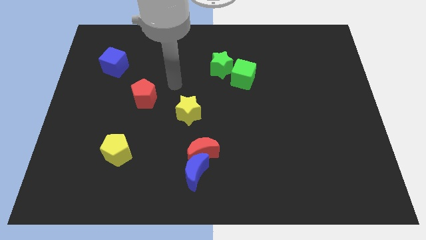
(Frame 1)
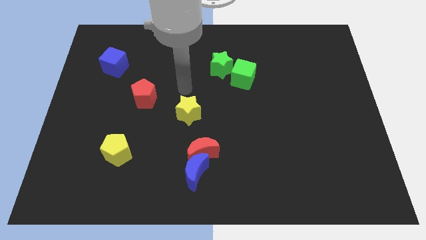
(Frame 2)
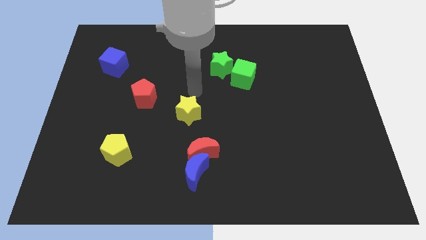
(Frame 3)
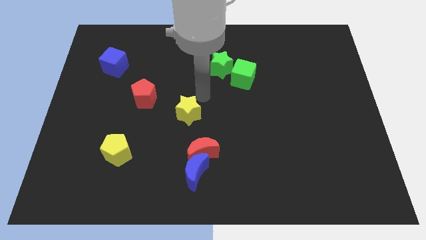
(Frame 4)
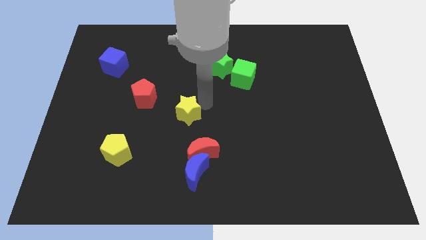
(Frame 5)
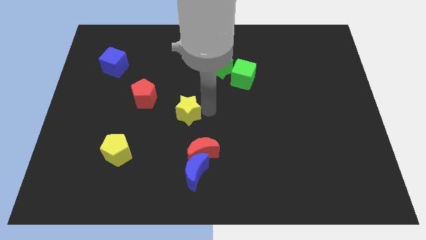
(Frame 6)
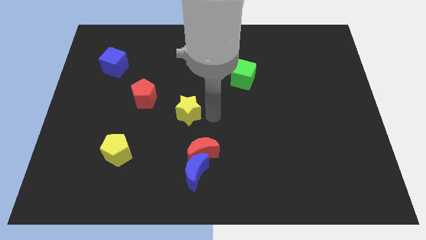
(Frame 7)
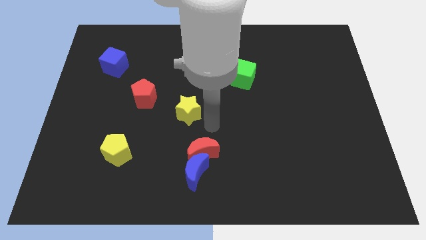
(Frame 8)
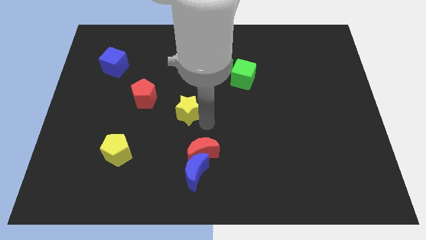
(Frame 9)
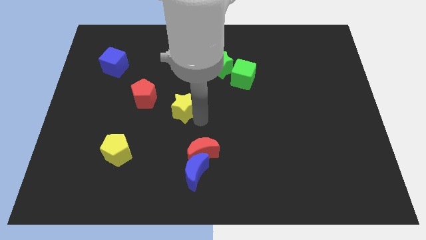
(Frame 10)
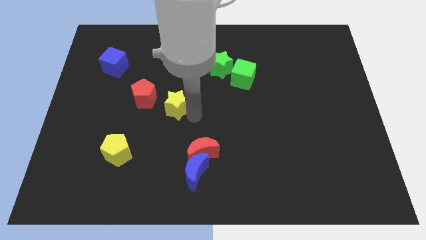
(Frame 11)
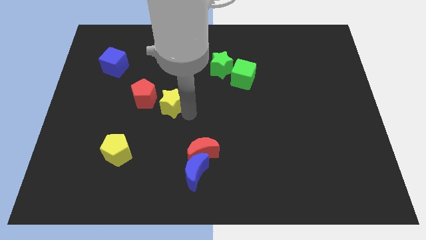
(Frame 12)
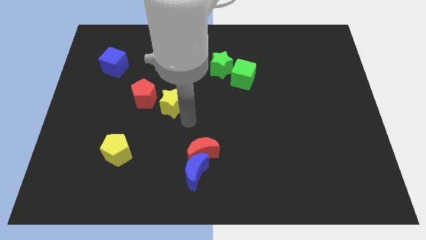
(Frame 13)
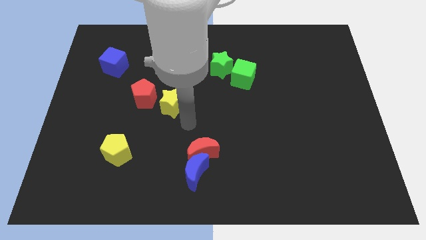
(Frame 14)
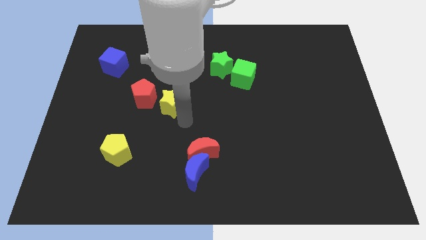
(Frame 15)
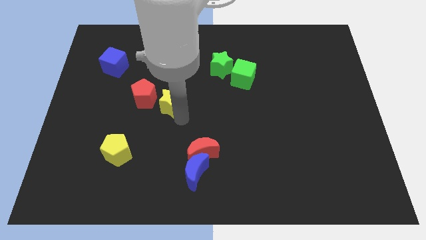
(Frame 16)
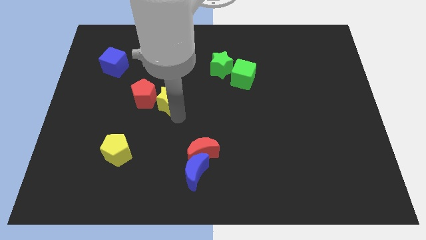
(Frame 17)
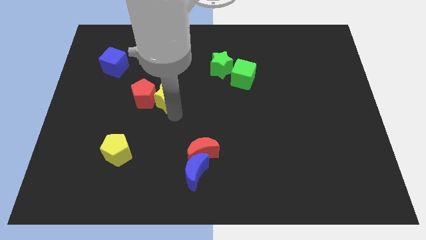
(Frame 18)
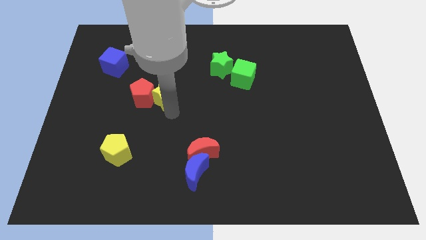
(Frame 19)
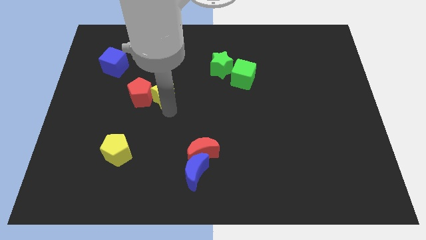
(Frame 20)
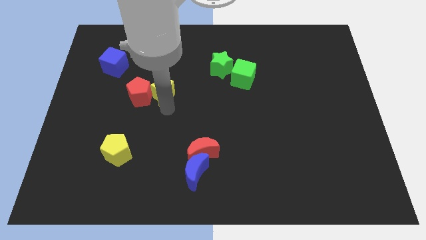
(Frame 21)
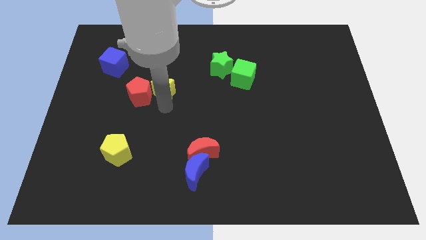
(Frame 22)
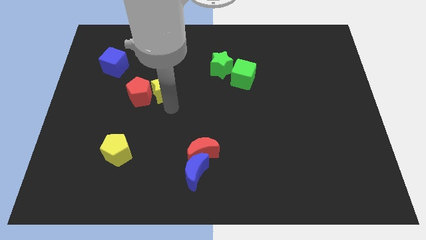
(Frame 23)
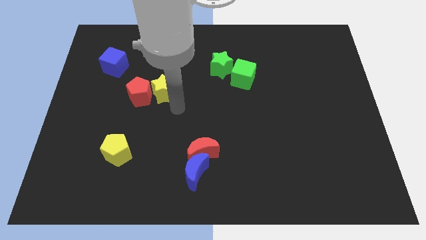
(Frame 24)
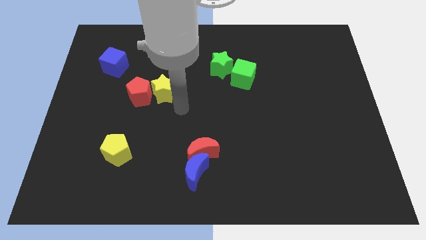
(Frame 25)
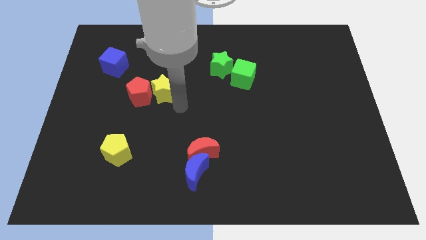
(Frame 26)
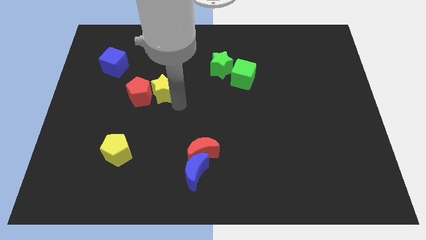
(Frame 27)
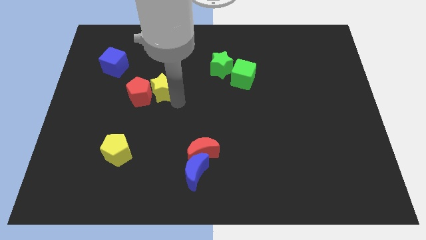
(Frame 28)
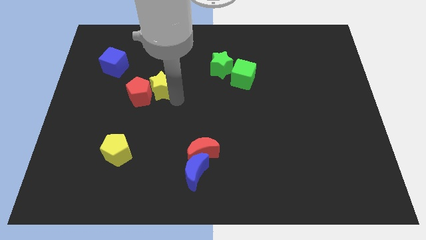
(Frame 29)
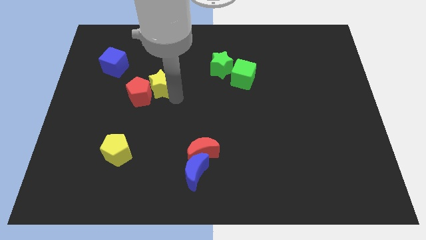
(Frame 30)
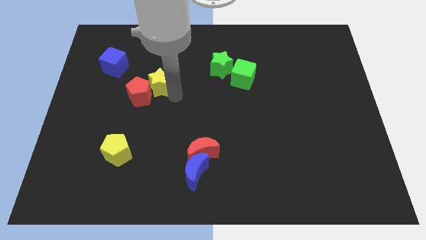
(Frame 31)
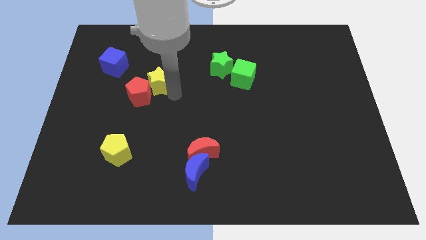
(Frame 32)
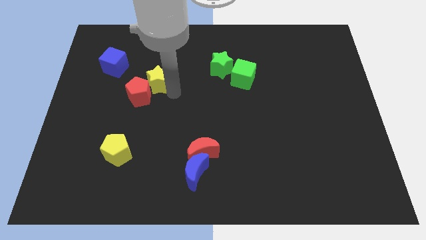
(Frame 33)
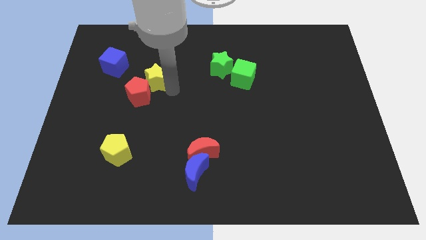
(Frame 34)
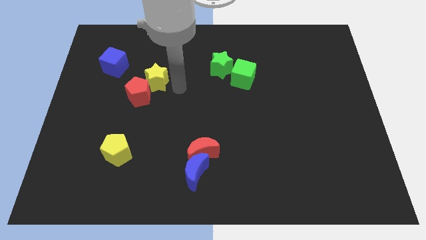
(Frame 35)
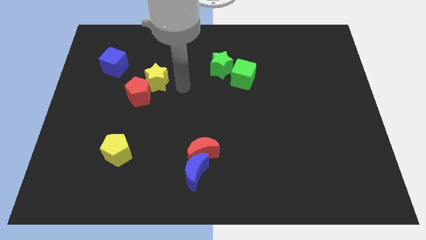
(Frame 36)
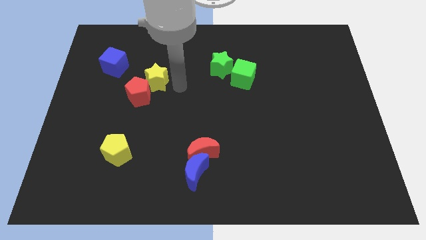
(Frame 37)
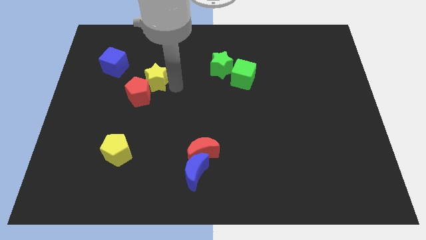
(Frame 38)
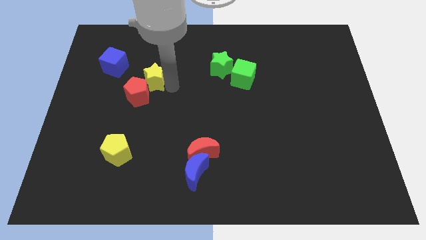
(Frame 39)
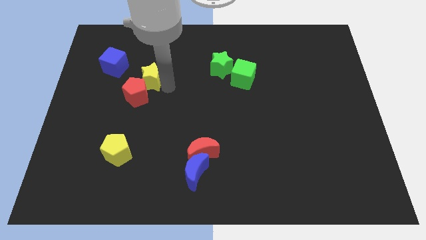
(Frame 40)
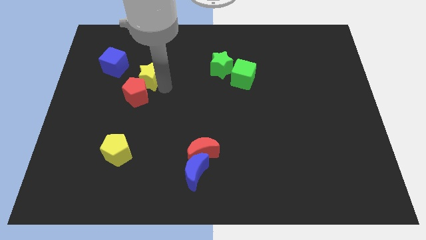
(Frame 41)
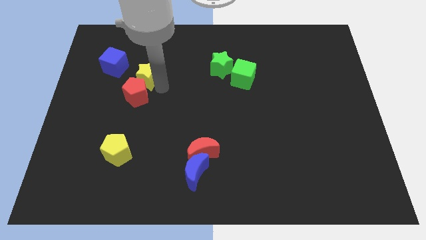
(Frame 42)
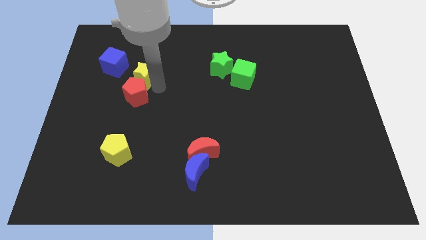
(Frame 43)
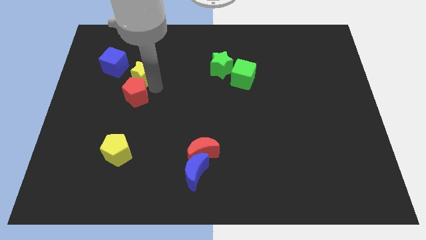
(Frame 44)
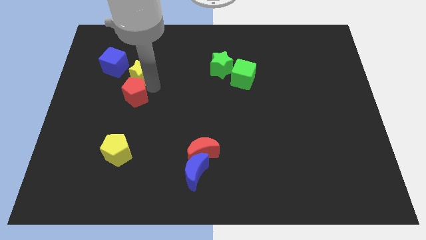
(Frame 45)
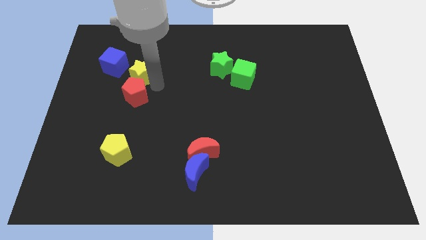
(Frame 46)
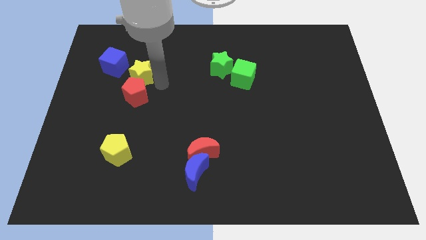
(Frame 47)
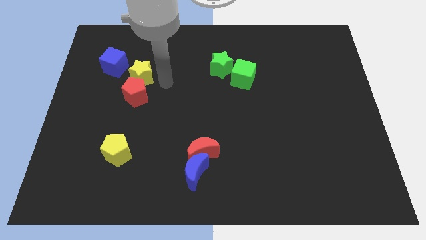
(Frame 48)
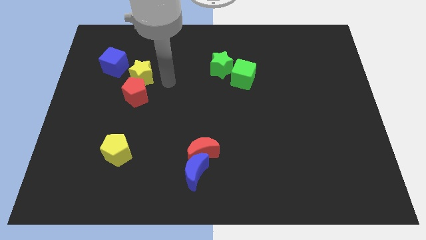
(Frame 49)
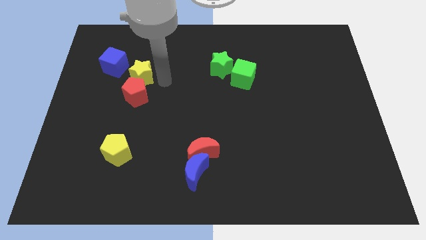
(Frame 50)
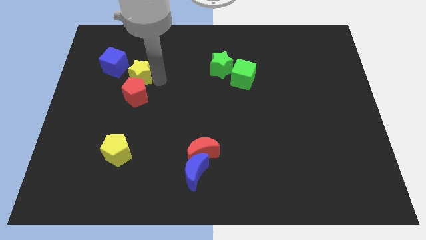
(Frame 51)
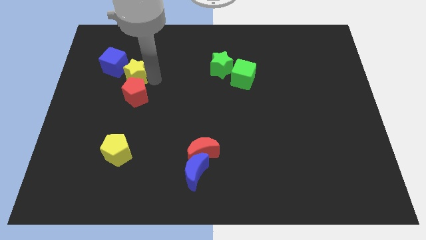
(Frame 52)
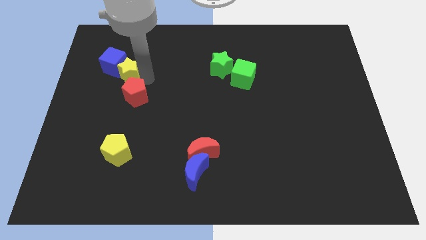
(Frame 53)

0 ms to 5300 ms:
put the yellow star to the blue cube

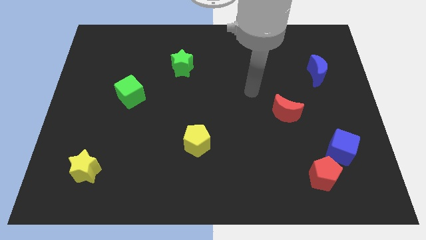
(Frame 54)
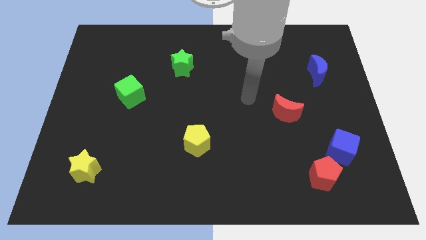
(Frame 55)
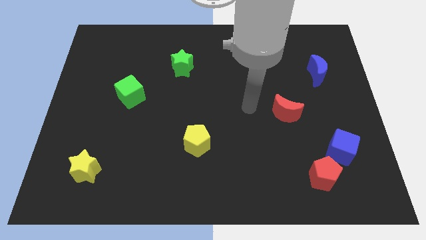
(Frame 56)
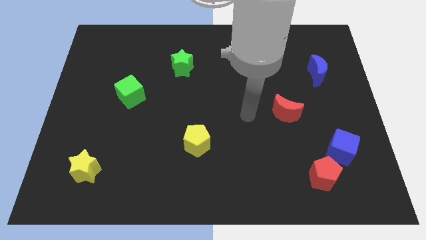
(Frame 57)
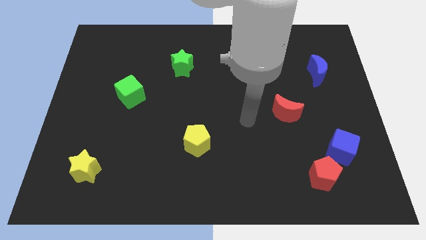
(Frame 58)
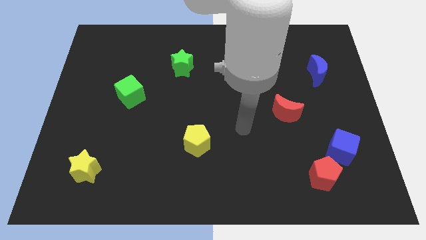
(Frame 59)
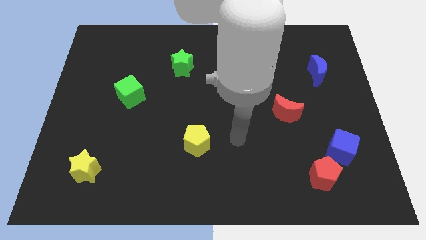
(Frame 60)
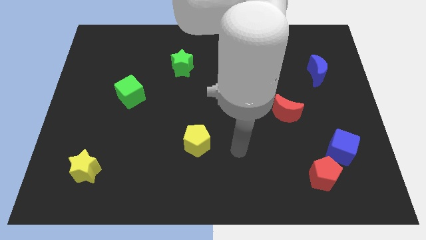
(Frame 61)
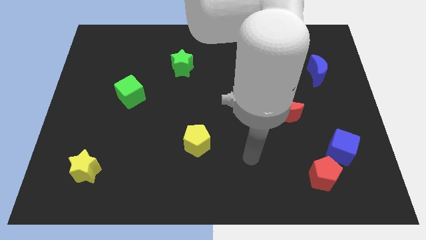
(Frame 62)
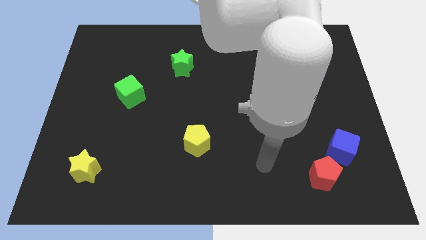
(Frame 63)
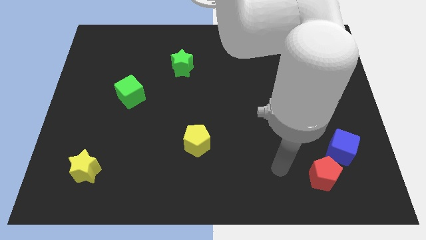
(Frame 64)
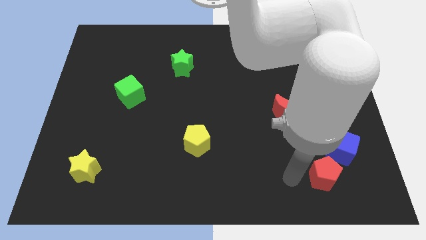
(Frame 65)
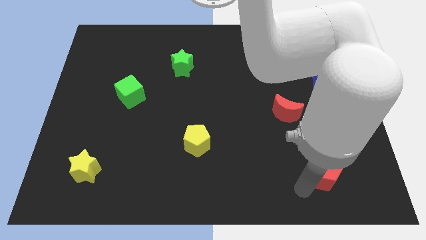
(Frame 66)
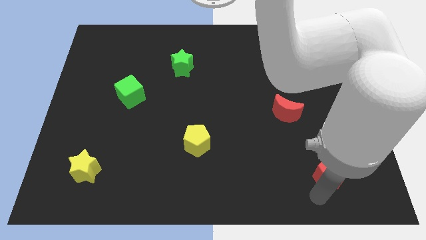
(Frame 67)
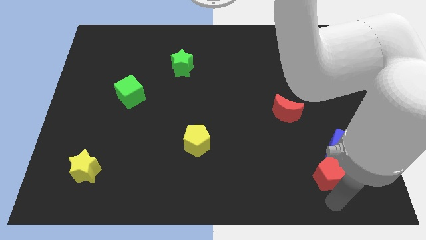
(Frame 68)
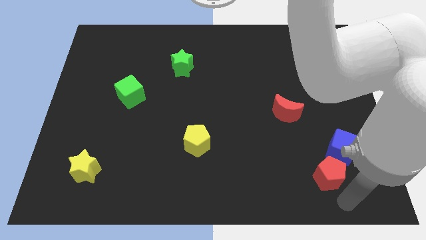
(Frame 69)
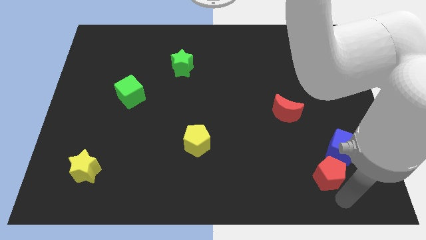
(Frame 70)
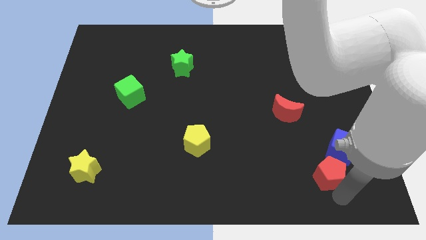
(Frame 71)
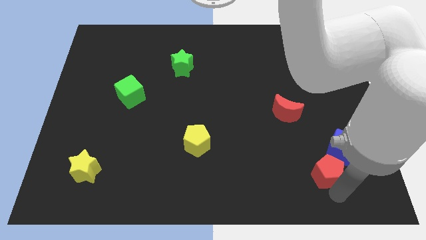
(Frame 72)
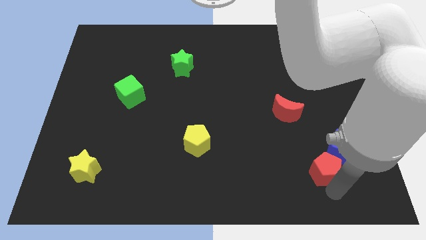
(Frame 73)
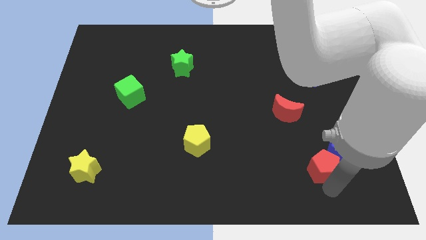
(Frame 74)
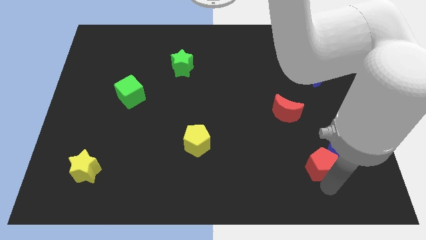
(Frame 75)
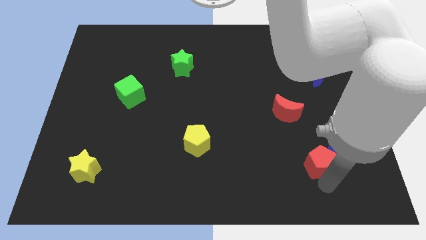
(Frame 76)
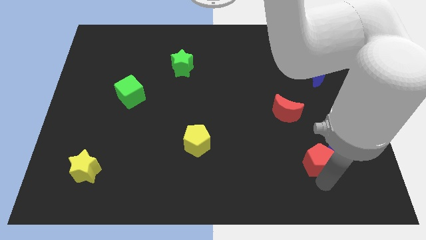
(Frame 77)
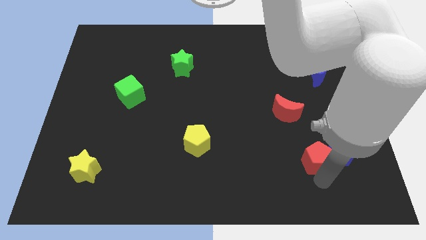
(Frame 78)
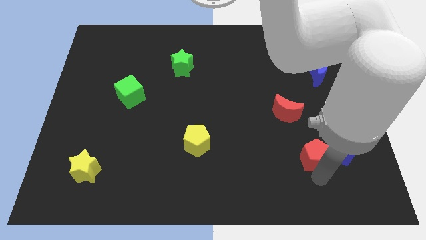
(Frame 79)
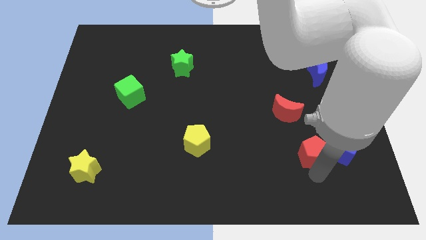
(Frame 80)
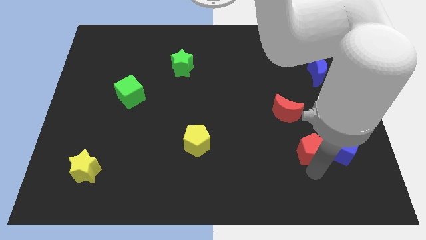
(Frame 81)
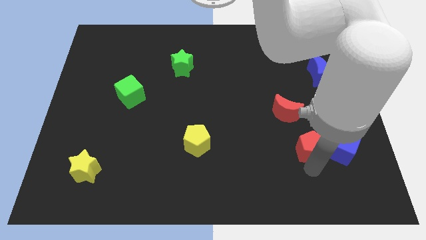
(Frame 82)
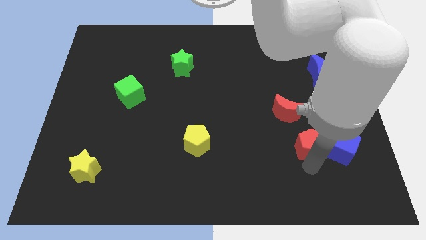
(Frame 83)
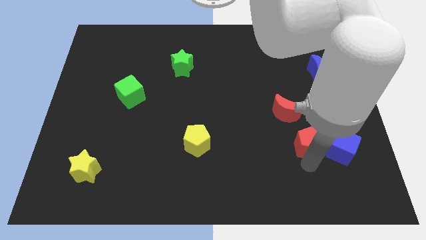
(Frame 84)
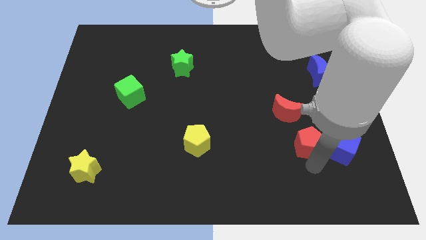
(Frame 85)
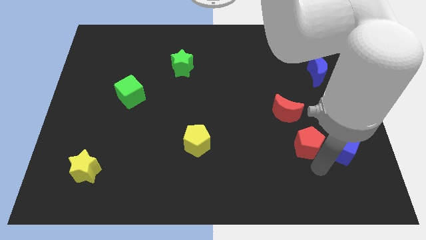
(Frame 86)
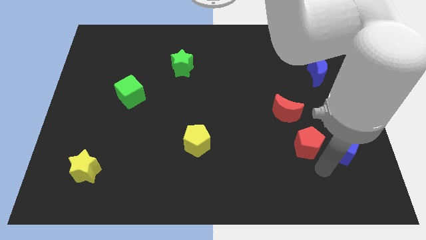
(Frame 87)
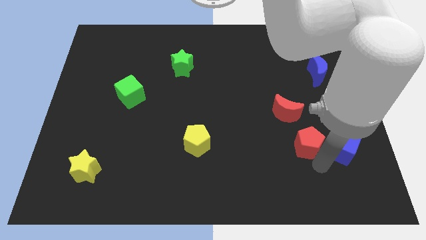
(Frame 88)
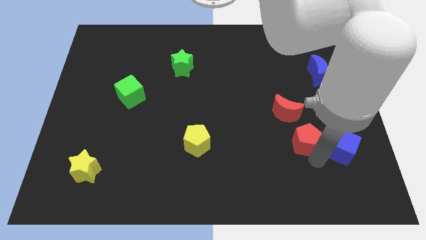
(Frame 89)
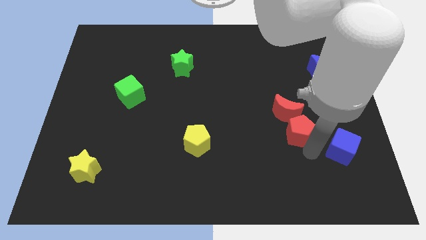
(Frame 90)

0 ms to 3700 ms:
slide the red pentagon next to the red moon
